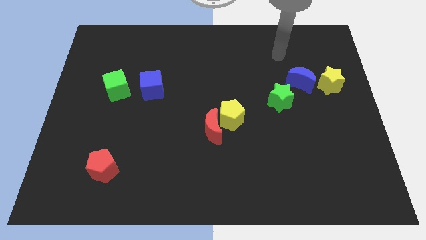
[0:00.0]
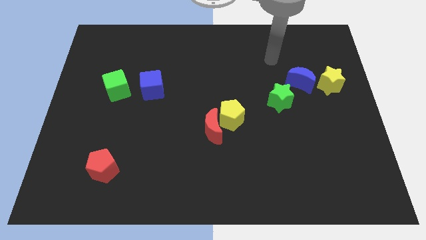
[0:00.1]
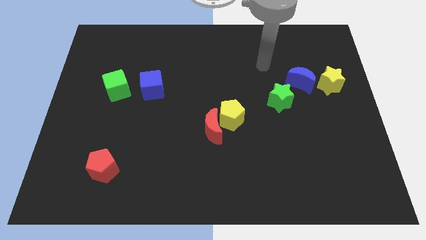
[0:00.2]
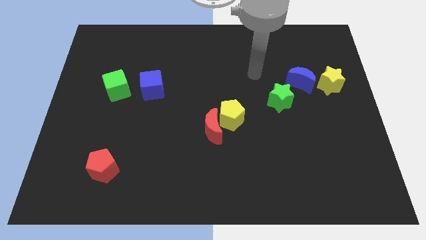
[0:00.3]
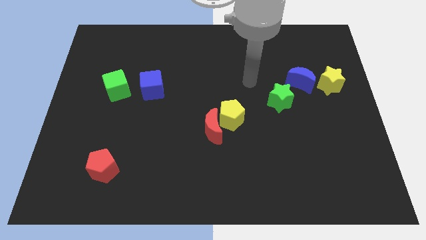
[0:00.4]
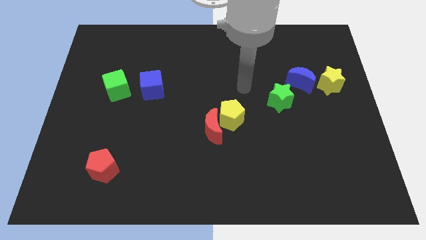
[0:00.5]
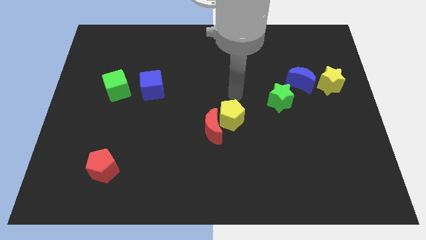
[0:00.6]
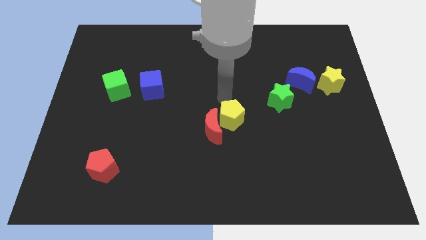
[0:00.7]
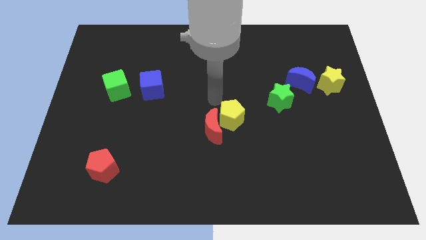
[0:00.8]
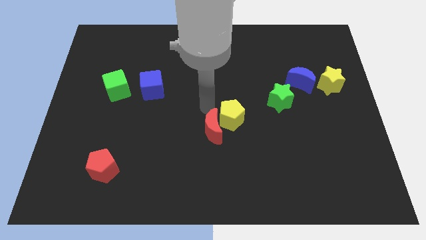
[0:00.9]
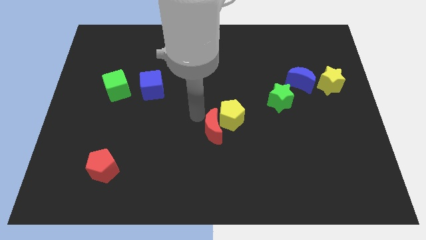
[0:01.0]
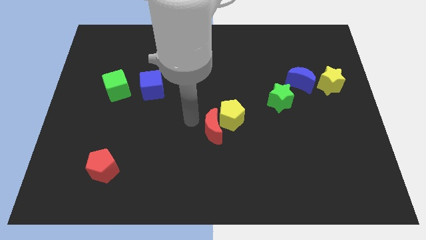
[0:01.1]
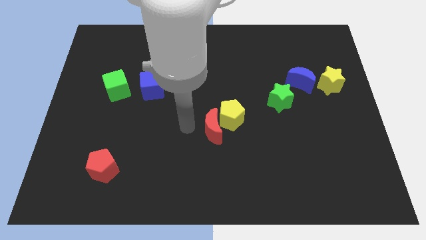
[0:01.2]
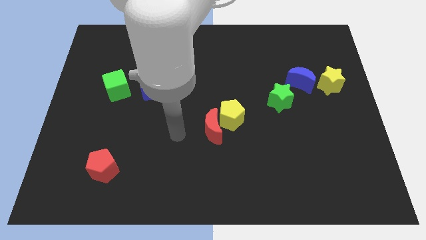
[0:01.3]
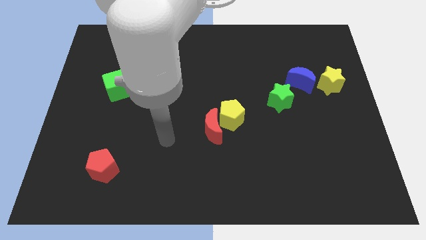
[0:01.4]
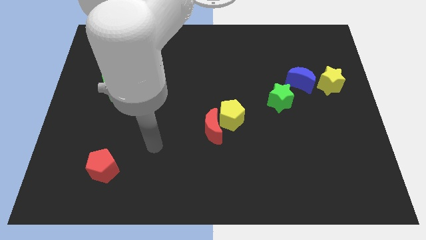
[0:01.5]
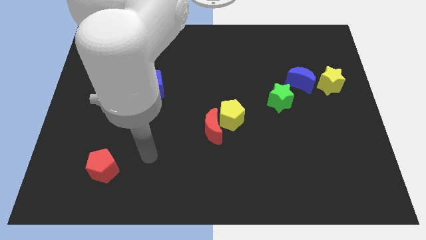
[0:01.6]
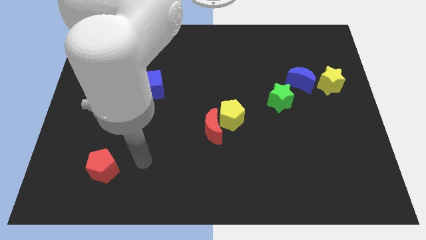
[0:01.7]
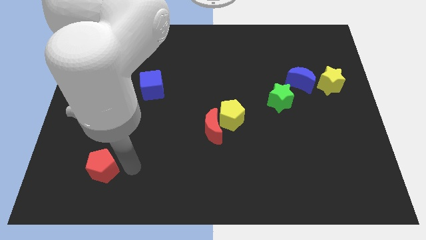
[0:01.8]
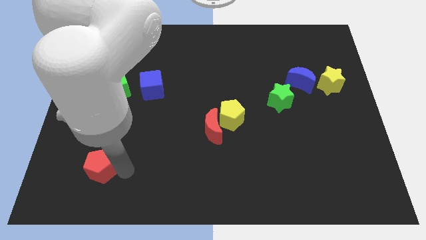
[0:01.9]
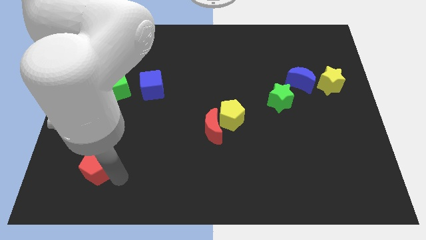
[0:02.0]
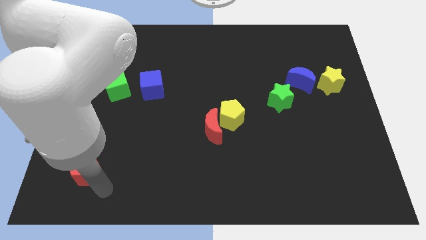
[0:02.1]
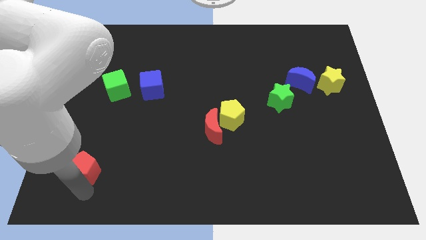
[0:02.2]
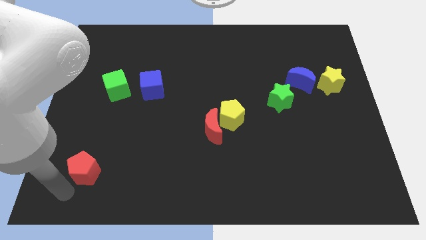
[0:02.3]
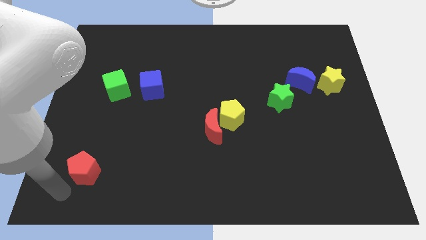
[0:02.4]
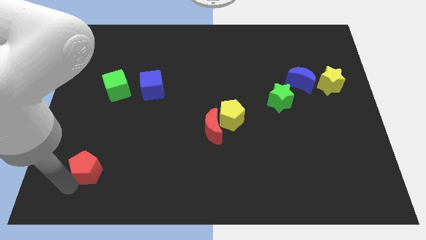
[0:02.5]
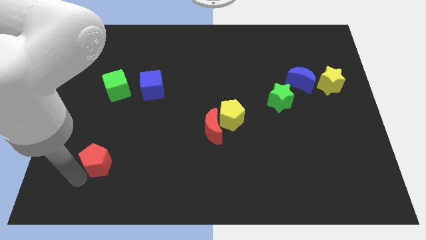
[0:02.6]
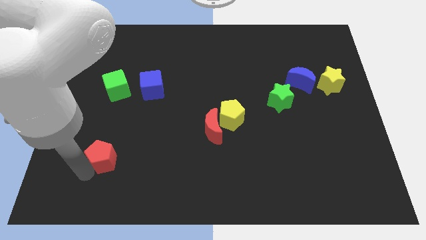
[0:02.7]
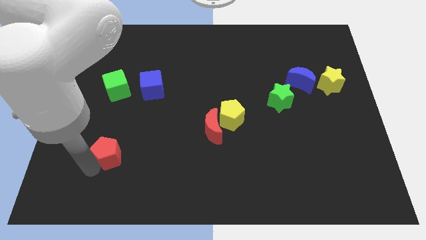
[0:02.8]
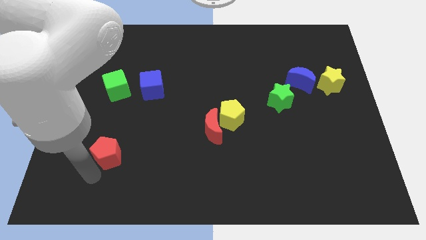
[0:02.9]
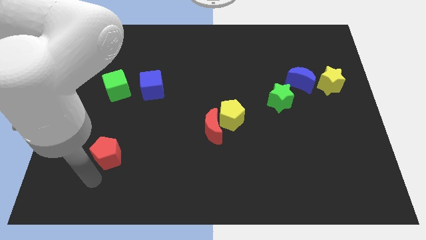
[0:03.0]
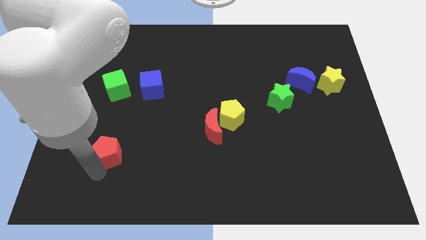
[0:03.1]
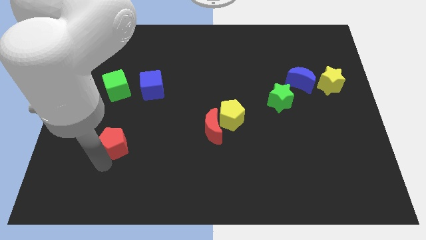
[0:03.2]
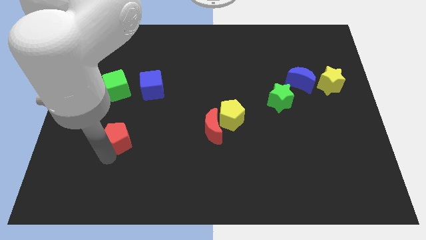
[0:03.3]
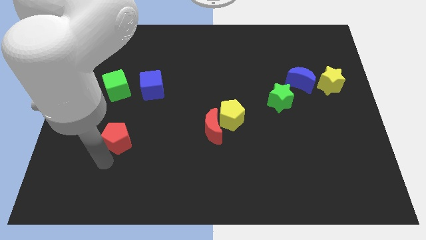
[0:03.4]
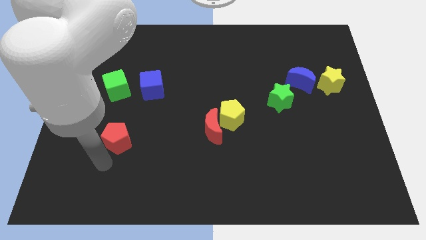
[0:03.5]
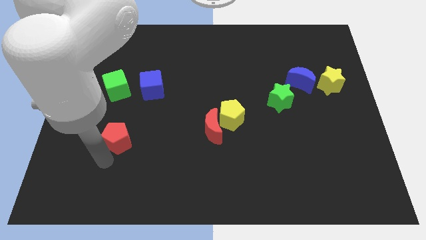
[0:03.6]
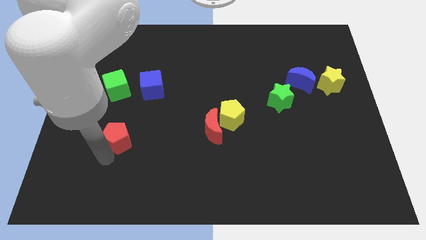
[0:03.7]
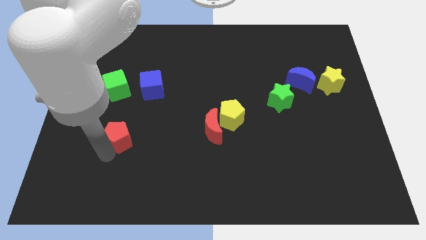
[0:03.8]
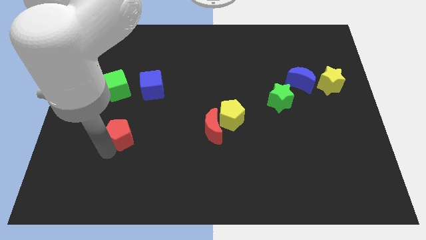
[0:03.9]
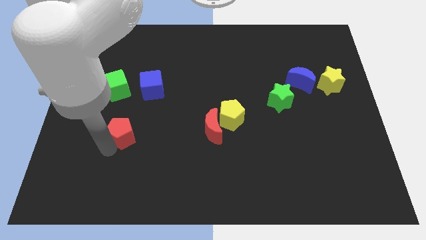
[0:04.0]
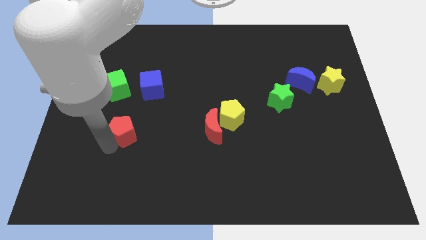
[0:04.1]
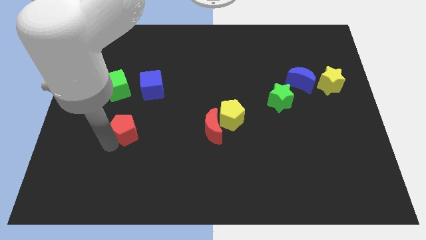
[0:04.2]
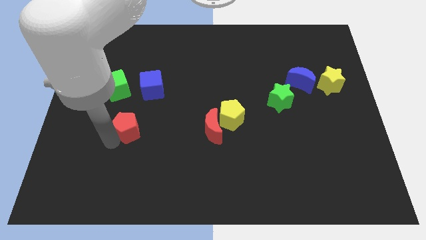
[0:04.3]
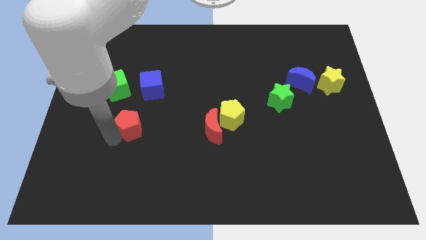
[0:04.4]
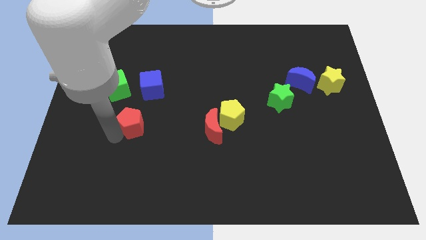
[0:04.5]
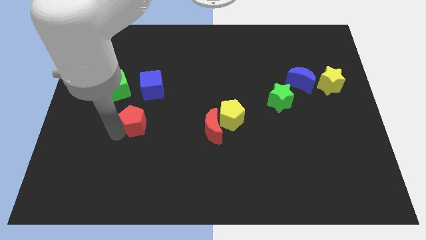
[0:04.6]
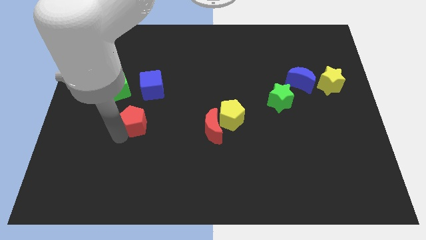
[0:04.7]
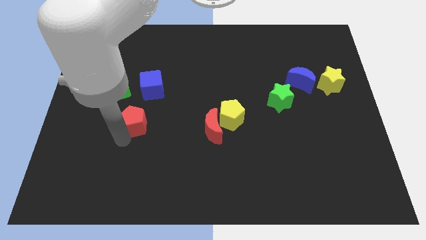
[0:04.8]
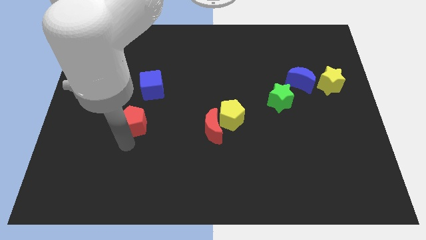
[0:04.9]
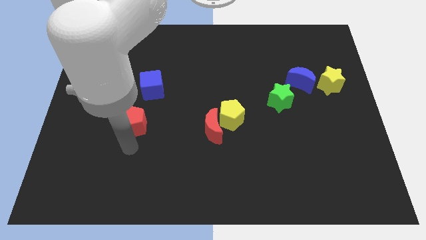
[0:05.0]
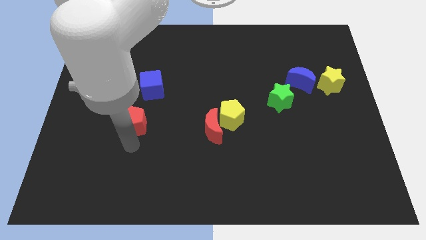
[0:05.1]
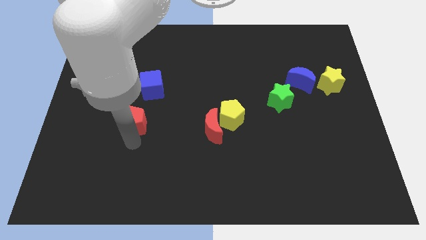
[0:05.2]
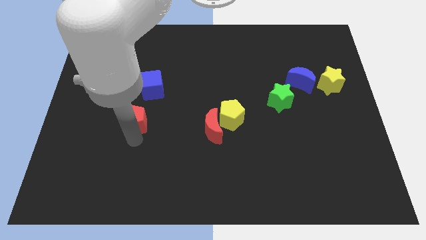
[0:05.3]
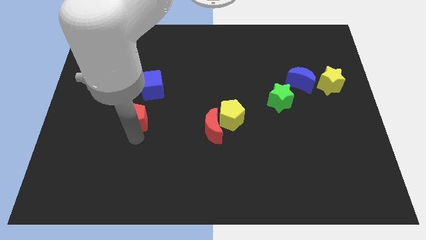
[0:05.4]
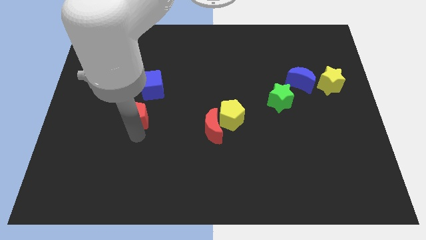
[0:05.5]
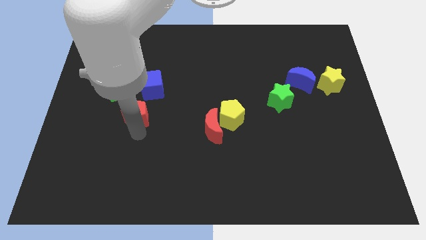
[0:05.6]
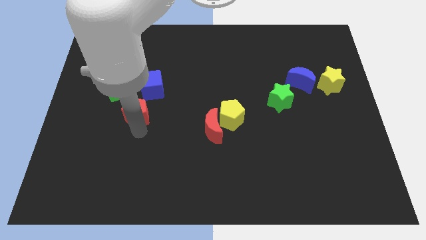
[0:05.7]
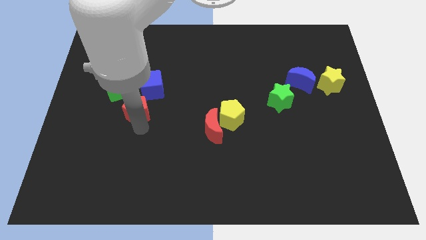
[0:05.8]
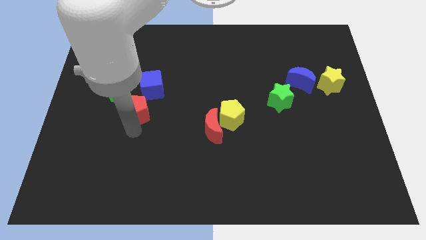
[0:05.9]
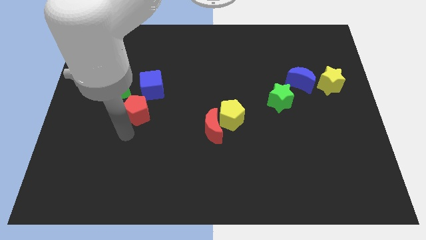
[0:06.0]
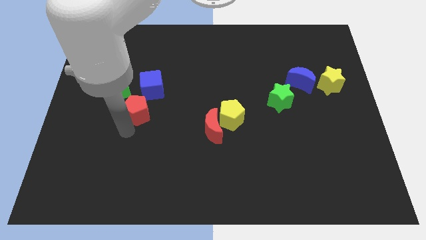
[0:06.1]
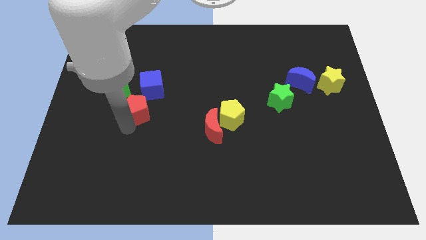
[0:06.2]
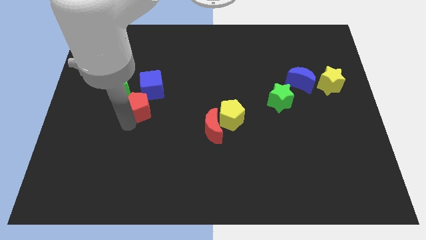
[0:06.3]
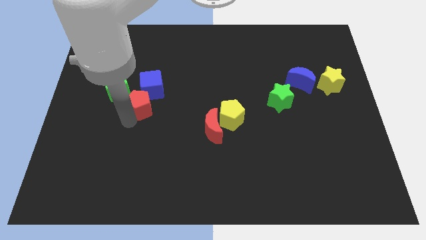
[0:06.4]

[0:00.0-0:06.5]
put the red pentagon close to the blue cube

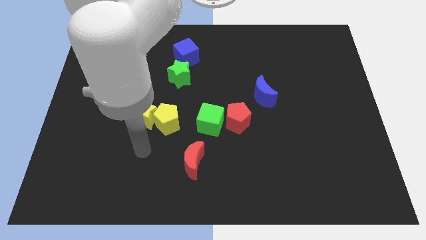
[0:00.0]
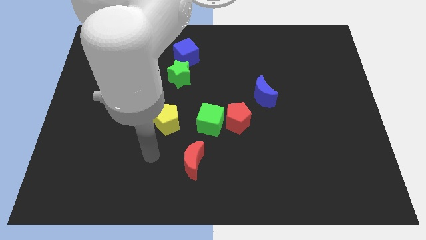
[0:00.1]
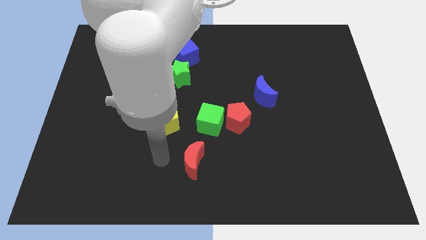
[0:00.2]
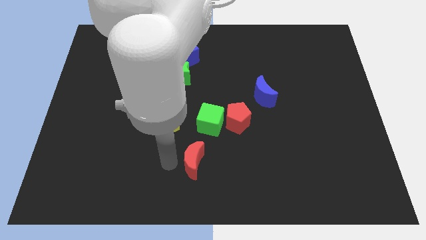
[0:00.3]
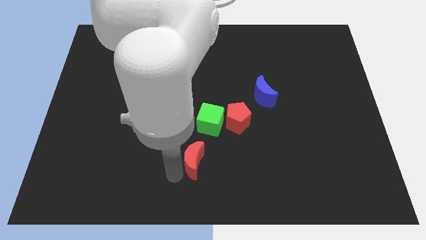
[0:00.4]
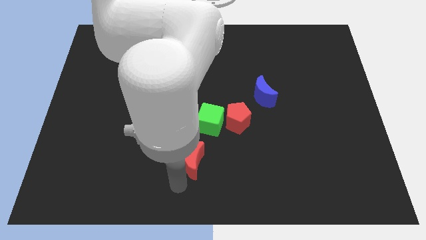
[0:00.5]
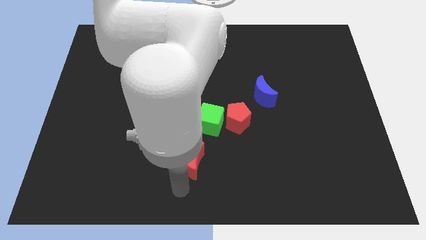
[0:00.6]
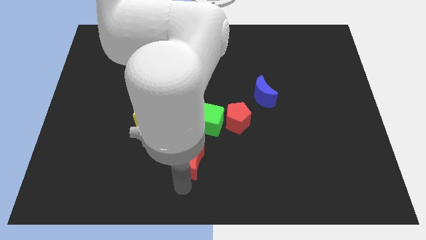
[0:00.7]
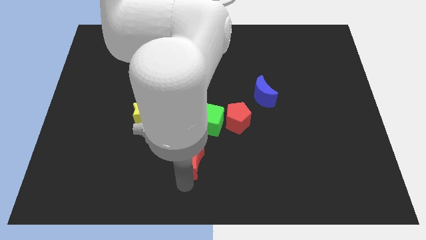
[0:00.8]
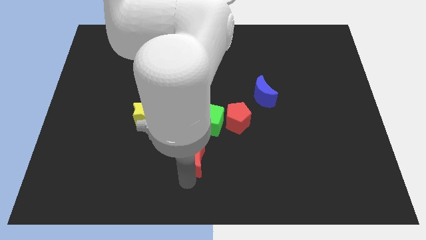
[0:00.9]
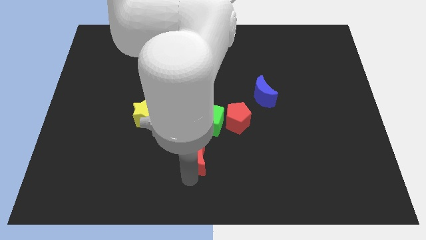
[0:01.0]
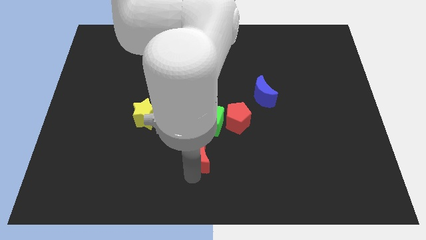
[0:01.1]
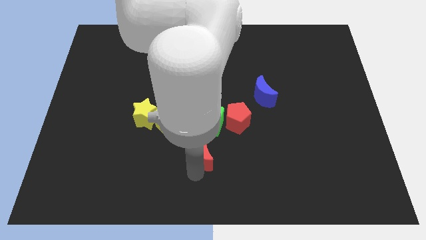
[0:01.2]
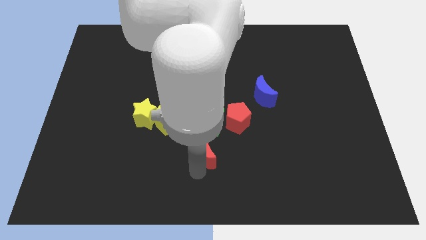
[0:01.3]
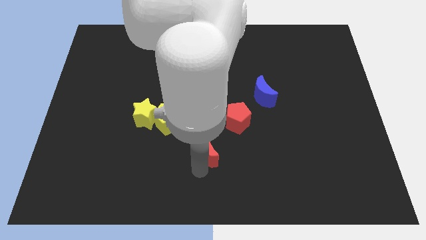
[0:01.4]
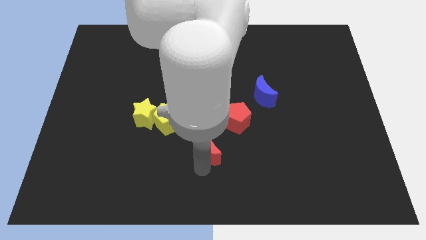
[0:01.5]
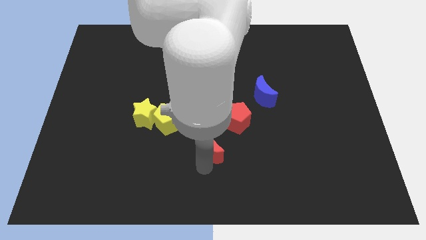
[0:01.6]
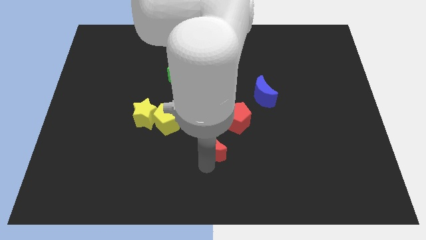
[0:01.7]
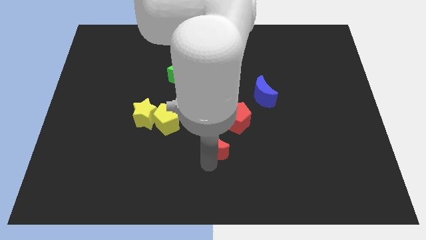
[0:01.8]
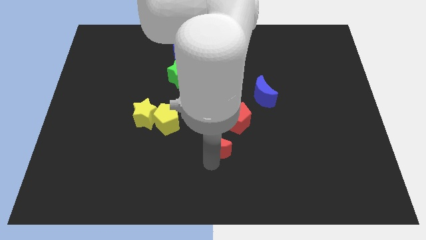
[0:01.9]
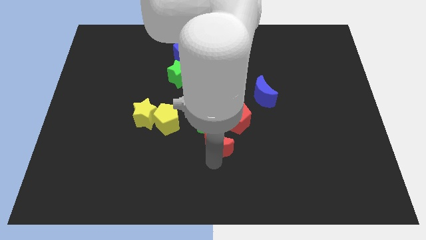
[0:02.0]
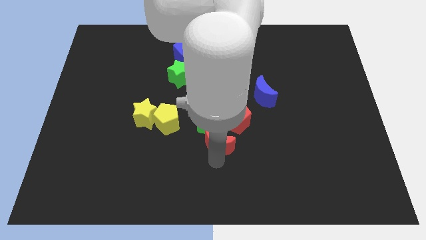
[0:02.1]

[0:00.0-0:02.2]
move the red moon to the green cube
